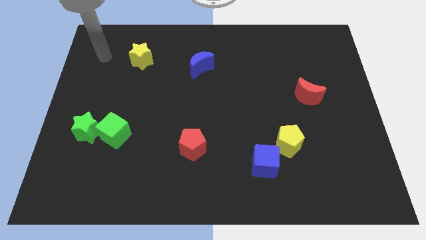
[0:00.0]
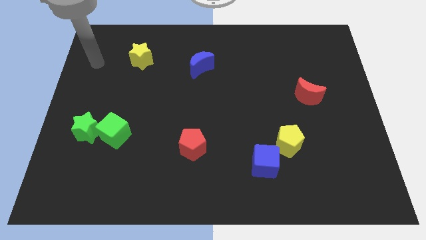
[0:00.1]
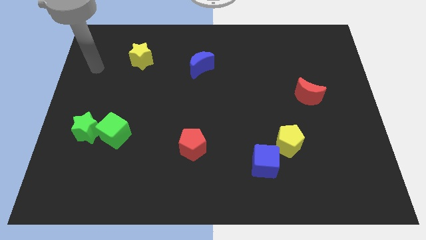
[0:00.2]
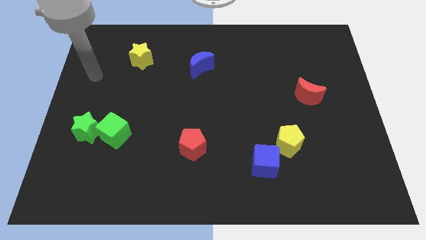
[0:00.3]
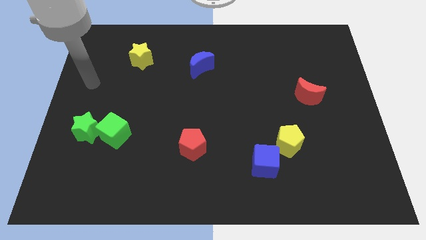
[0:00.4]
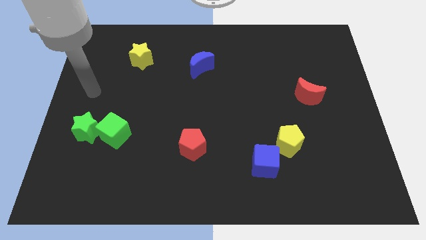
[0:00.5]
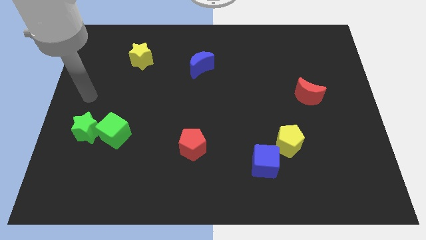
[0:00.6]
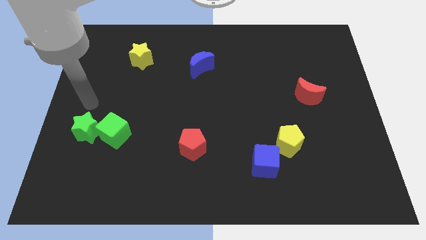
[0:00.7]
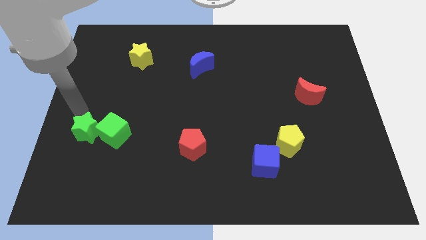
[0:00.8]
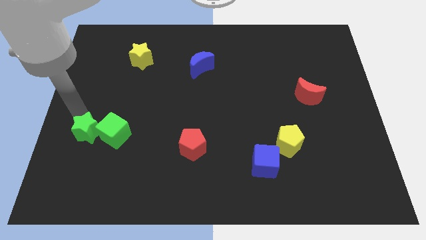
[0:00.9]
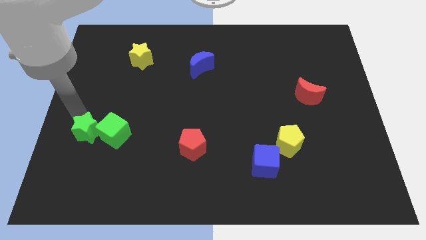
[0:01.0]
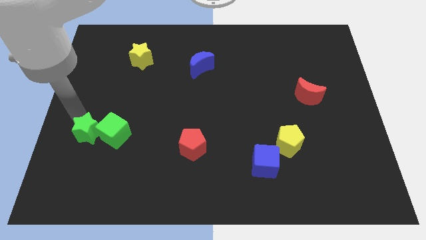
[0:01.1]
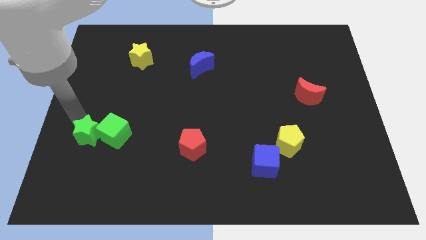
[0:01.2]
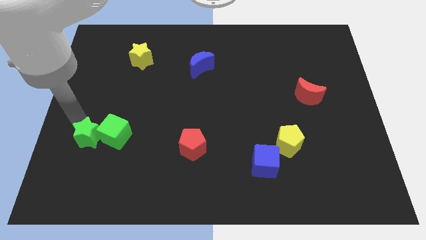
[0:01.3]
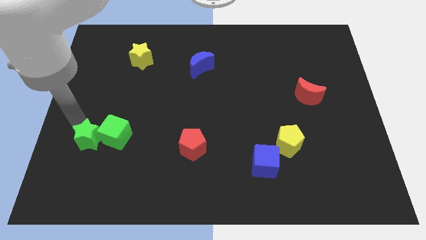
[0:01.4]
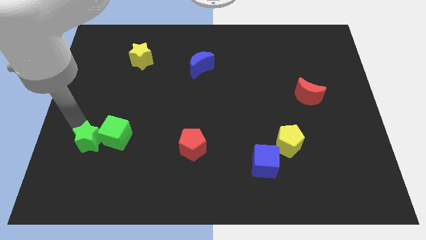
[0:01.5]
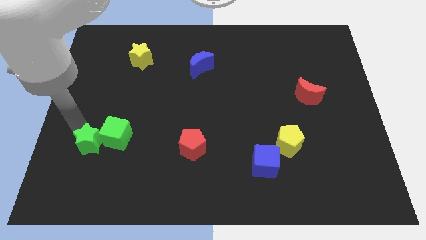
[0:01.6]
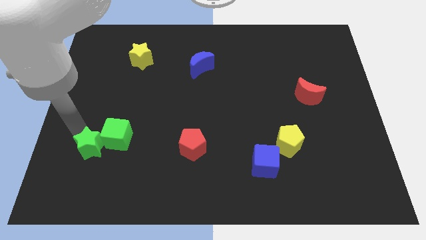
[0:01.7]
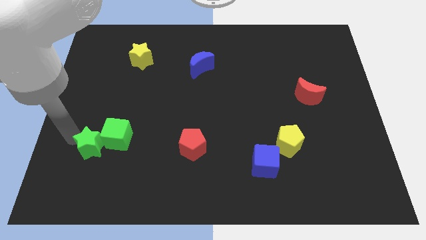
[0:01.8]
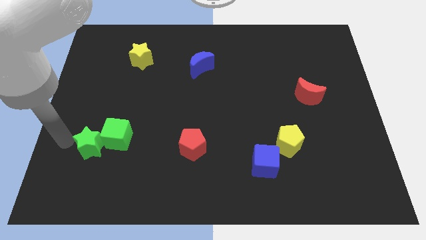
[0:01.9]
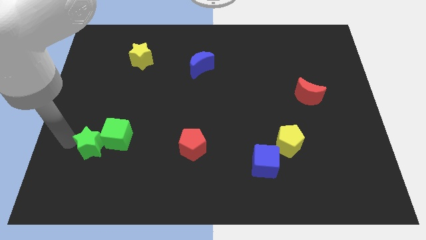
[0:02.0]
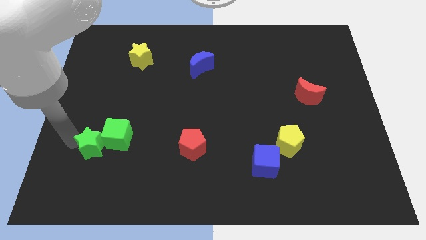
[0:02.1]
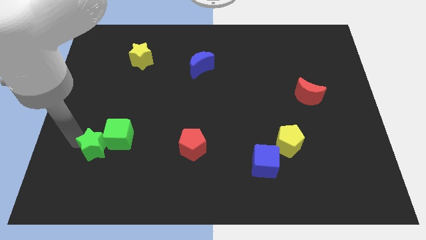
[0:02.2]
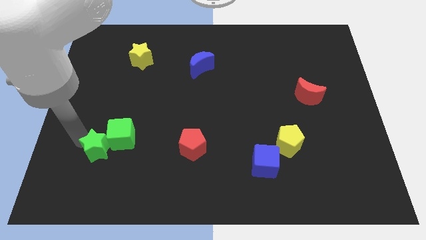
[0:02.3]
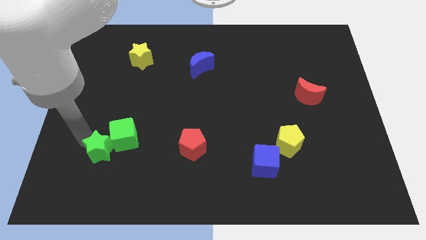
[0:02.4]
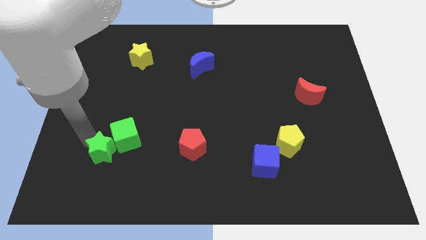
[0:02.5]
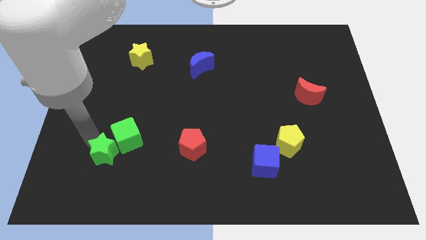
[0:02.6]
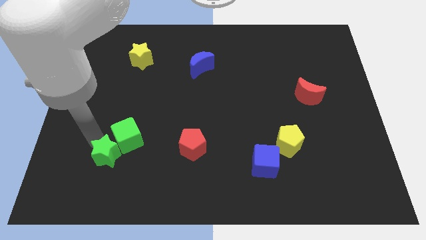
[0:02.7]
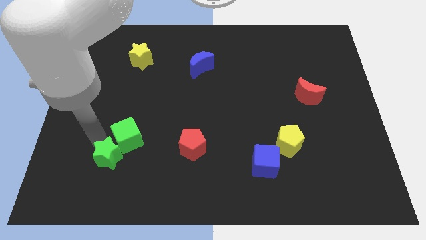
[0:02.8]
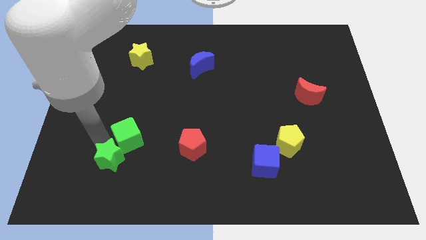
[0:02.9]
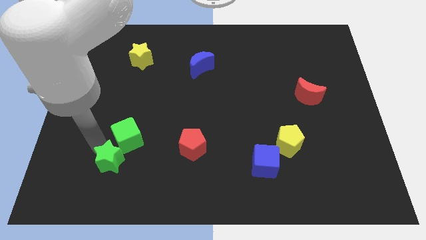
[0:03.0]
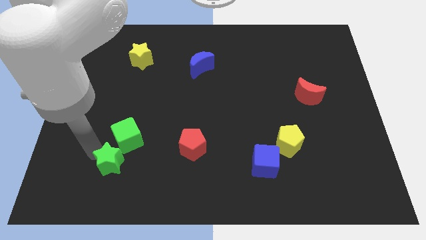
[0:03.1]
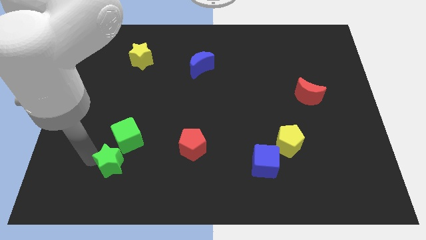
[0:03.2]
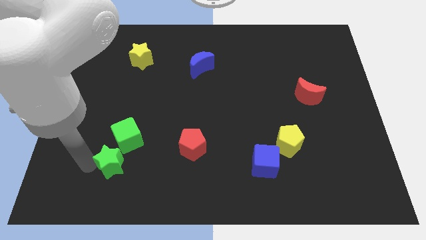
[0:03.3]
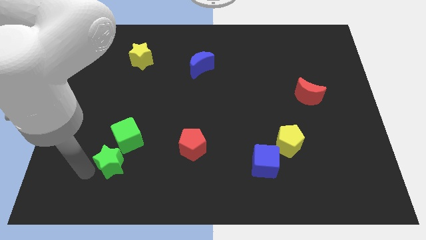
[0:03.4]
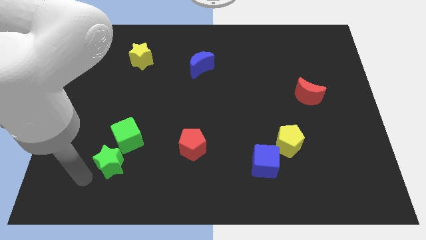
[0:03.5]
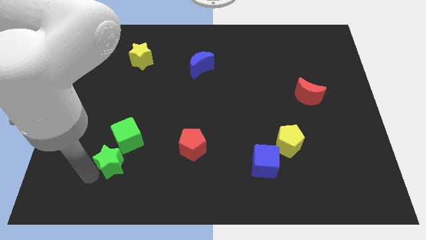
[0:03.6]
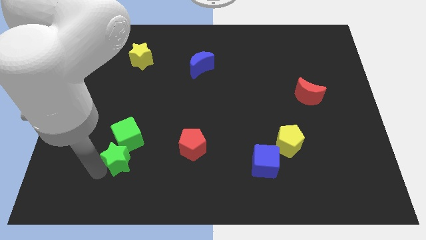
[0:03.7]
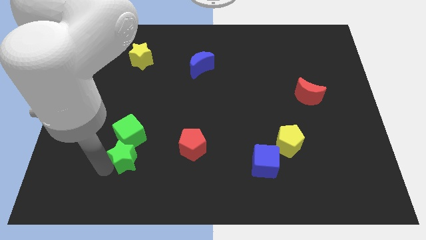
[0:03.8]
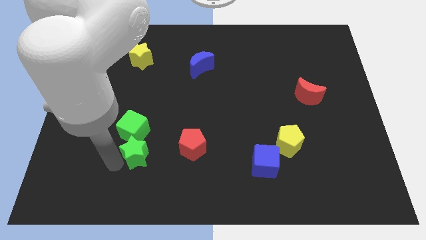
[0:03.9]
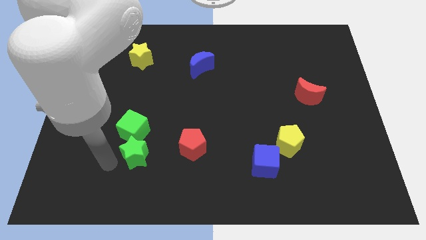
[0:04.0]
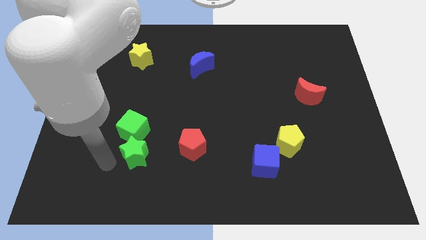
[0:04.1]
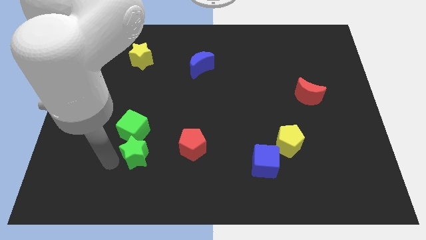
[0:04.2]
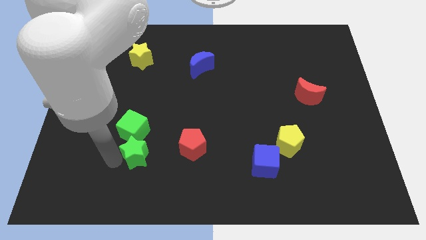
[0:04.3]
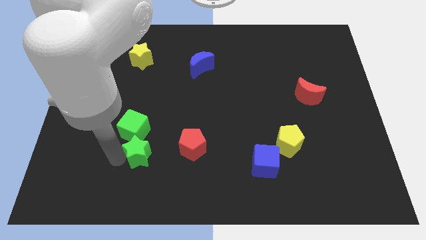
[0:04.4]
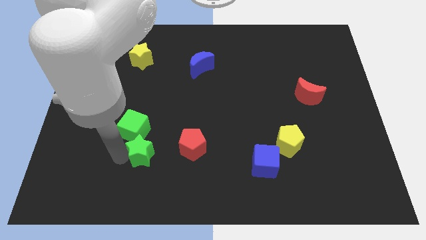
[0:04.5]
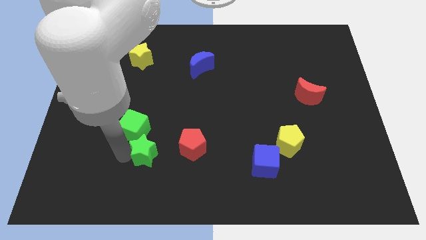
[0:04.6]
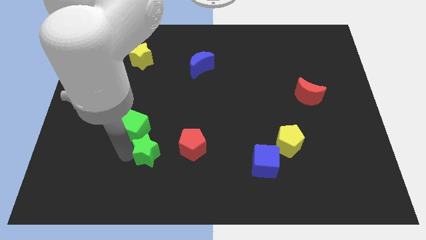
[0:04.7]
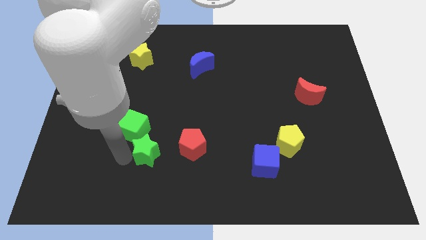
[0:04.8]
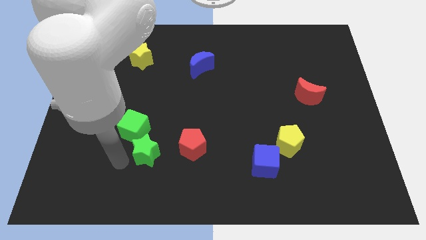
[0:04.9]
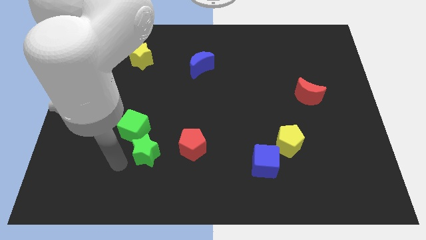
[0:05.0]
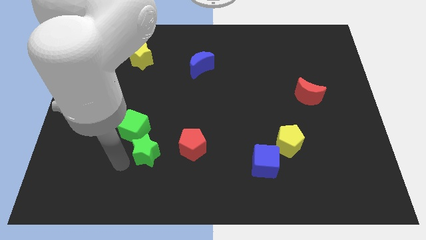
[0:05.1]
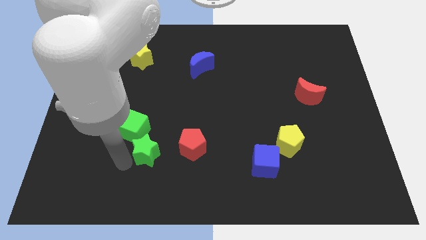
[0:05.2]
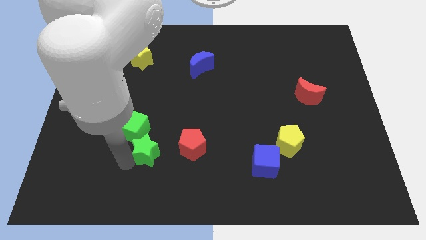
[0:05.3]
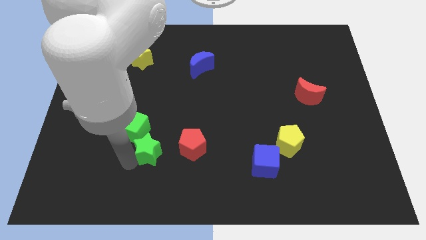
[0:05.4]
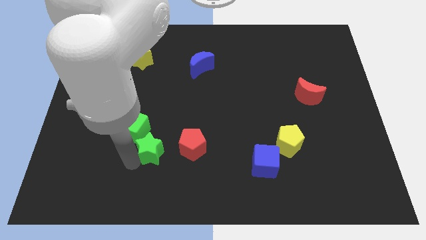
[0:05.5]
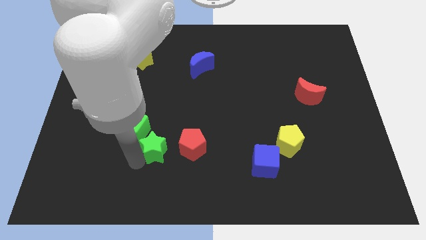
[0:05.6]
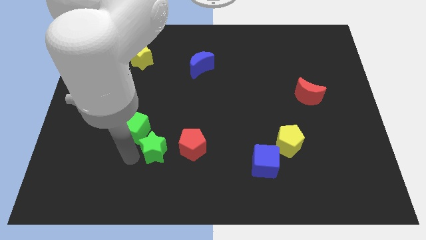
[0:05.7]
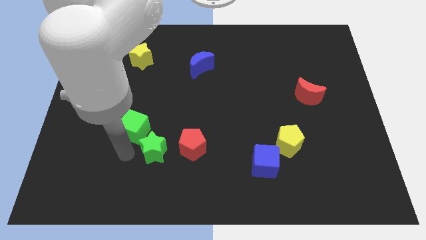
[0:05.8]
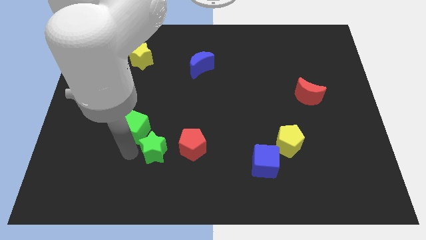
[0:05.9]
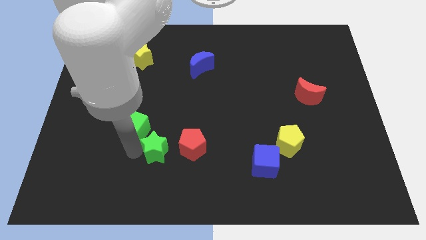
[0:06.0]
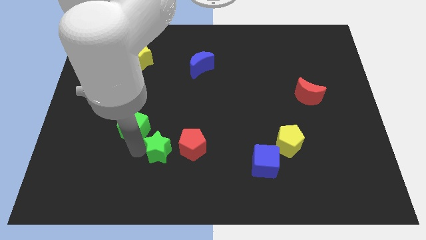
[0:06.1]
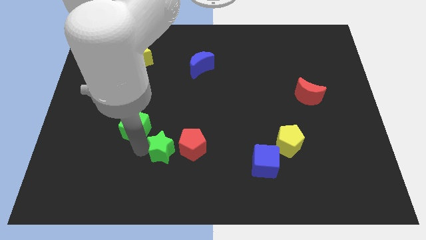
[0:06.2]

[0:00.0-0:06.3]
move the green star next to the red pentagon
